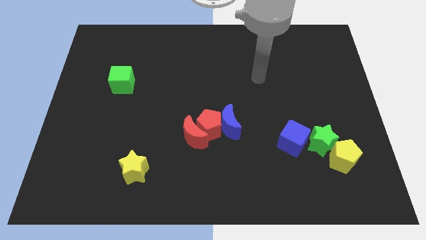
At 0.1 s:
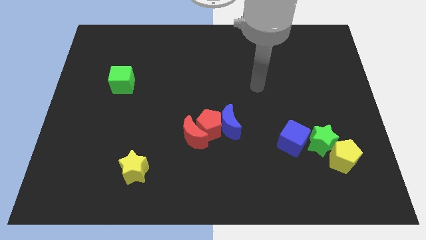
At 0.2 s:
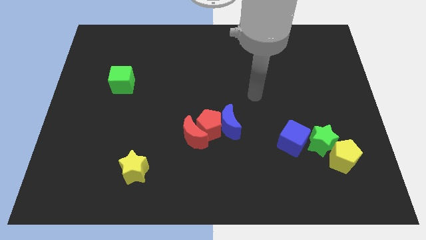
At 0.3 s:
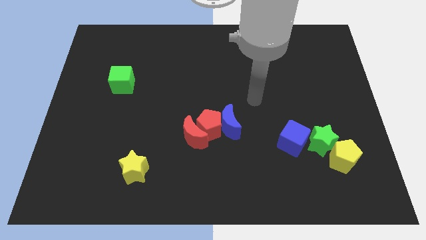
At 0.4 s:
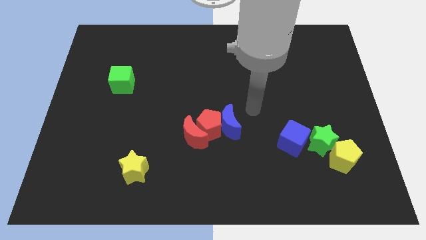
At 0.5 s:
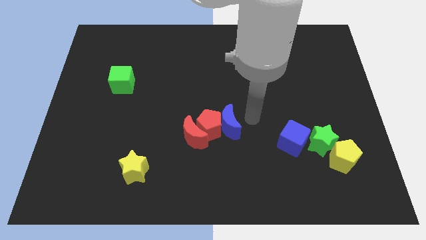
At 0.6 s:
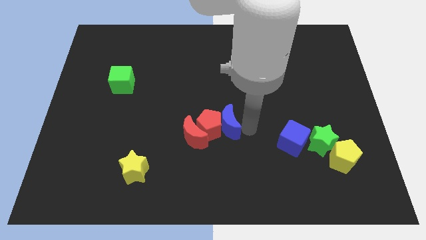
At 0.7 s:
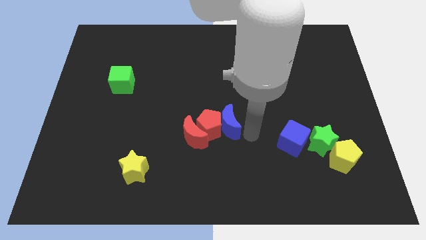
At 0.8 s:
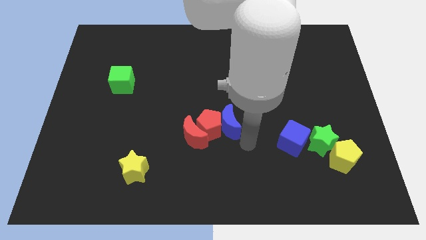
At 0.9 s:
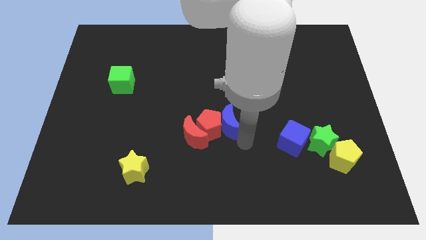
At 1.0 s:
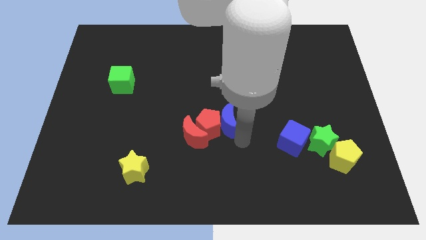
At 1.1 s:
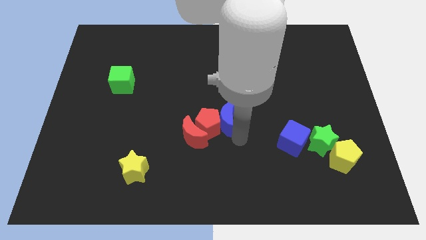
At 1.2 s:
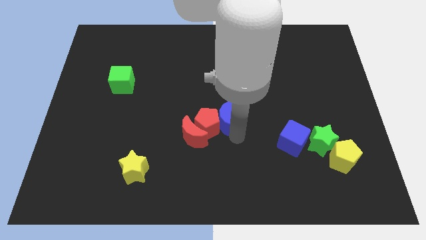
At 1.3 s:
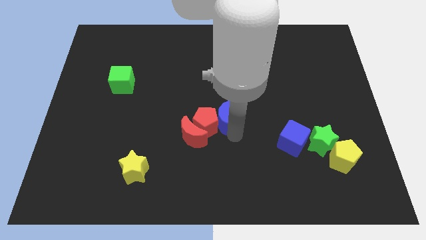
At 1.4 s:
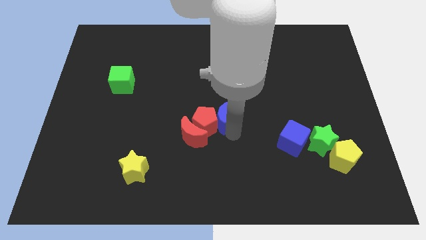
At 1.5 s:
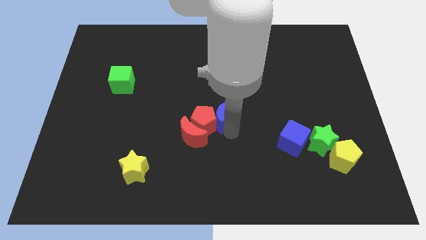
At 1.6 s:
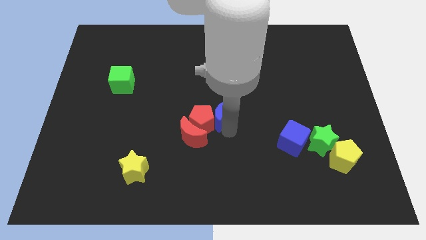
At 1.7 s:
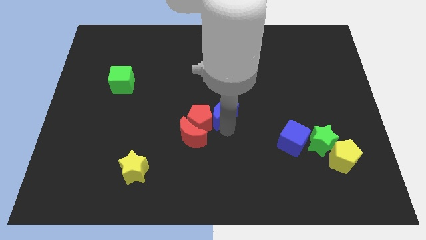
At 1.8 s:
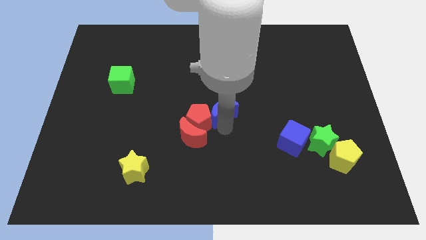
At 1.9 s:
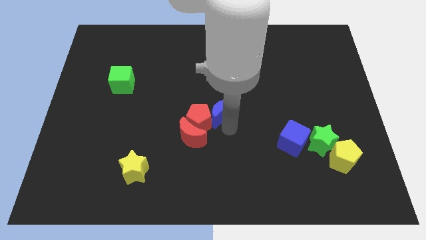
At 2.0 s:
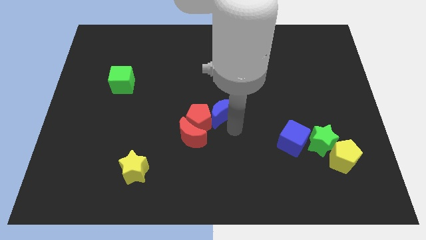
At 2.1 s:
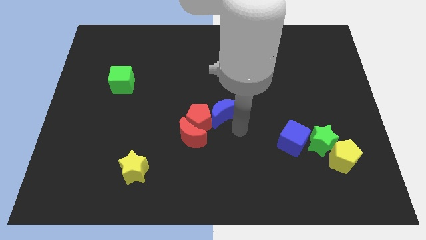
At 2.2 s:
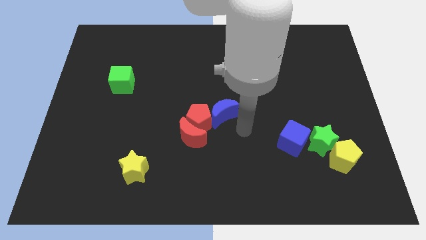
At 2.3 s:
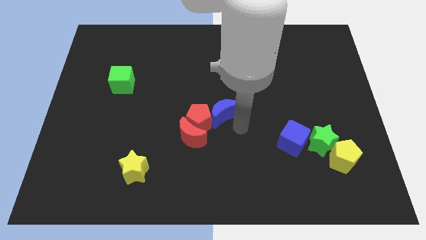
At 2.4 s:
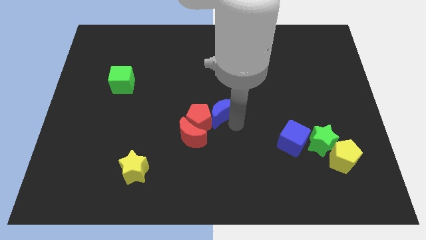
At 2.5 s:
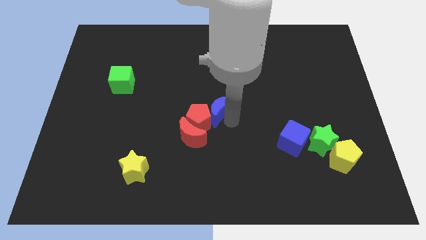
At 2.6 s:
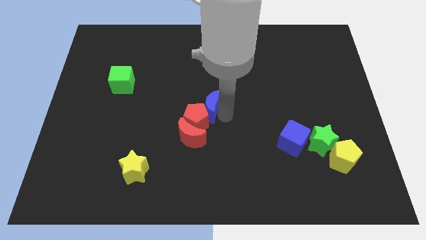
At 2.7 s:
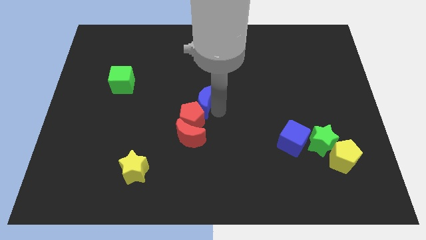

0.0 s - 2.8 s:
slide the blue moon a bit up and then left

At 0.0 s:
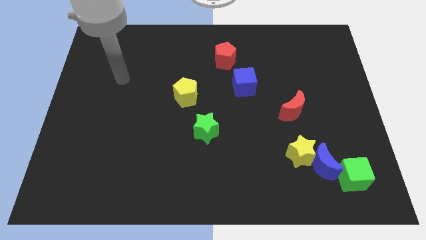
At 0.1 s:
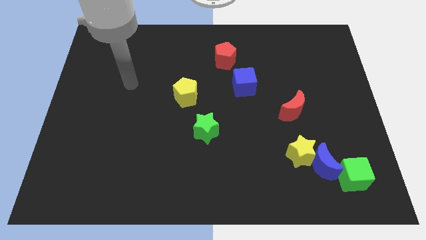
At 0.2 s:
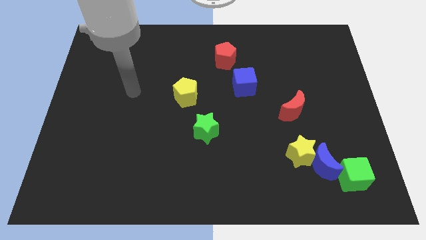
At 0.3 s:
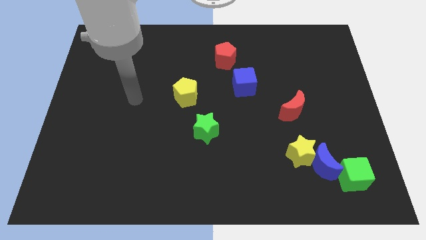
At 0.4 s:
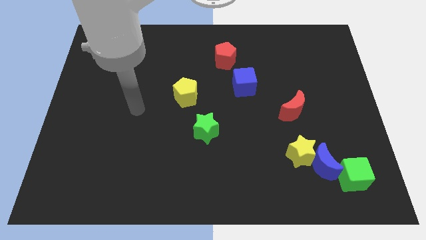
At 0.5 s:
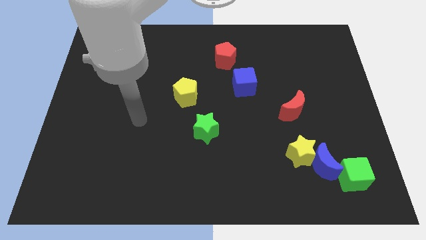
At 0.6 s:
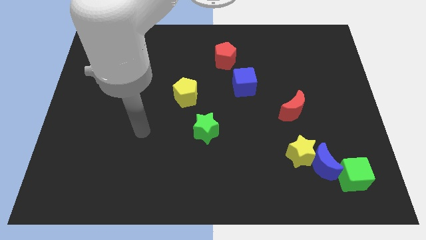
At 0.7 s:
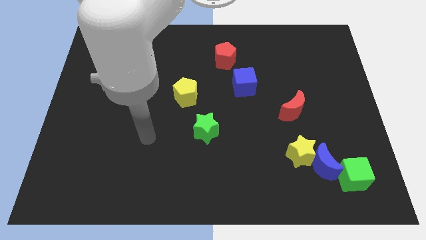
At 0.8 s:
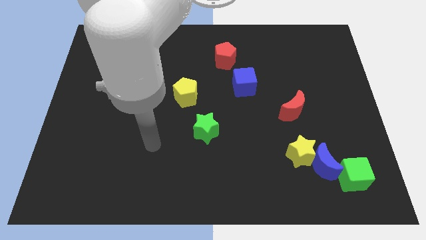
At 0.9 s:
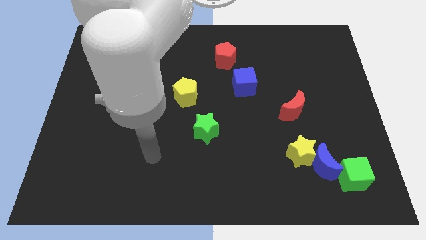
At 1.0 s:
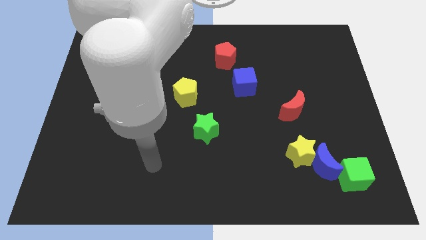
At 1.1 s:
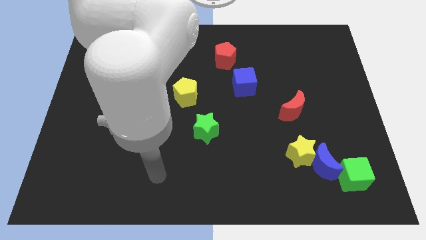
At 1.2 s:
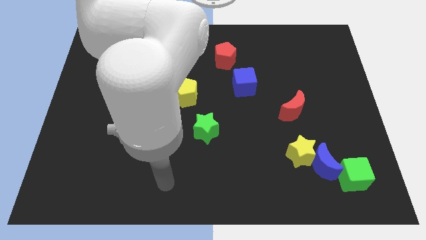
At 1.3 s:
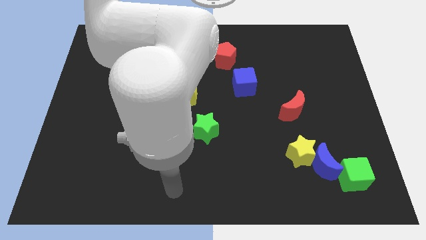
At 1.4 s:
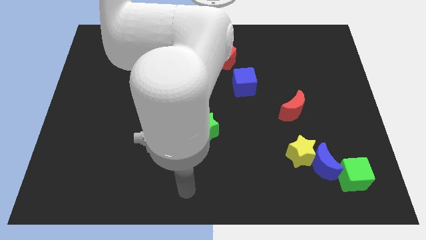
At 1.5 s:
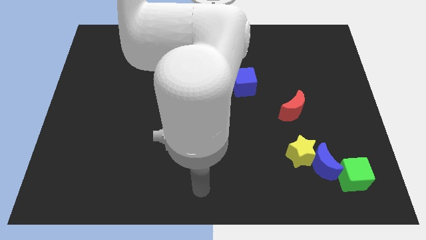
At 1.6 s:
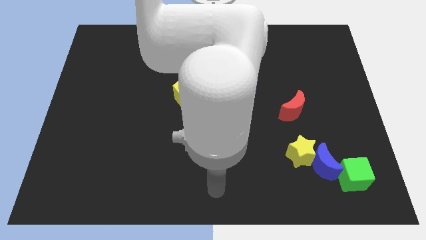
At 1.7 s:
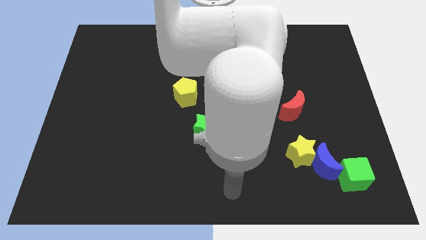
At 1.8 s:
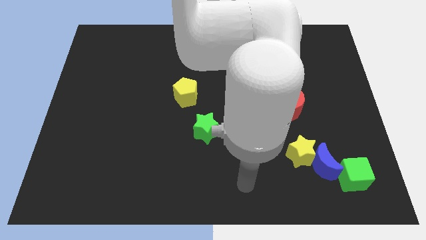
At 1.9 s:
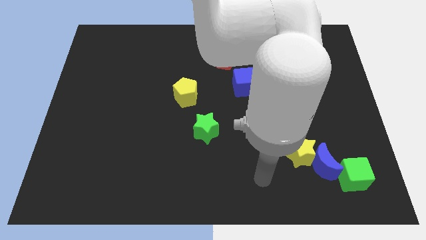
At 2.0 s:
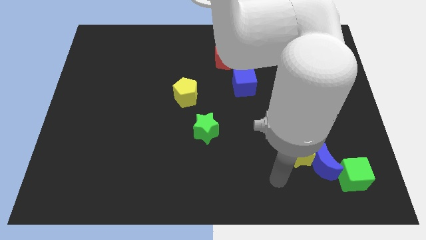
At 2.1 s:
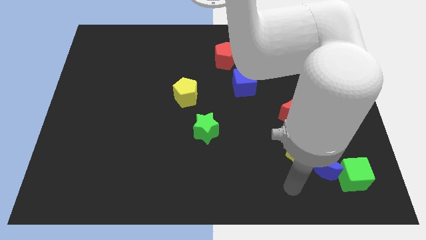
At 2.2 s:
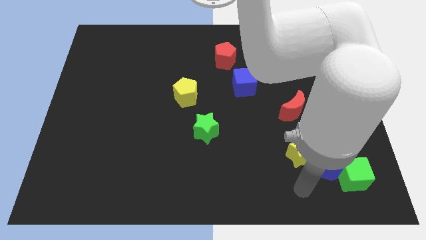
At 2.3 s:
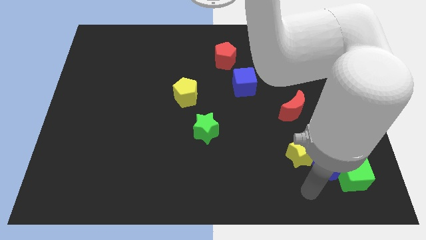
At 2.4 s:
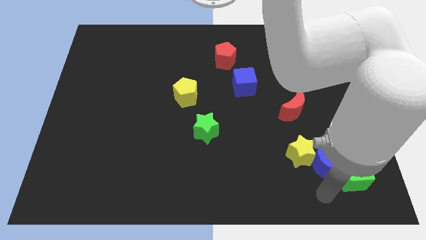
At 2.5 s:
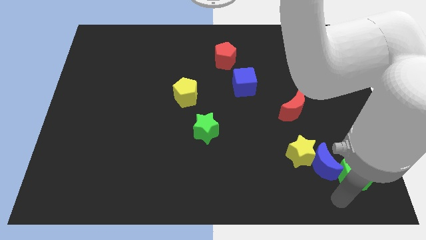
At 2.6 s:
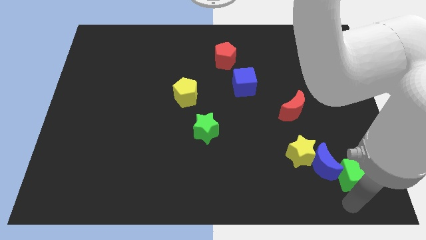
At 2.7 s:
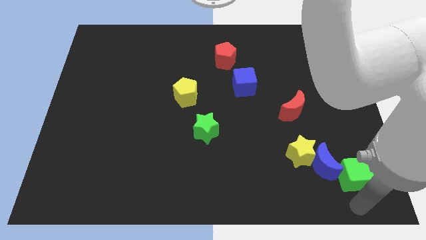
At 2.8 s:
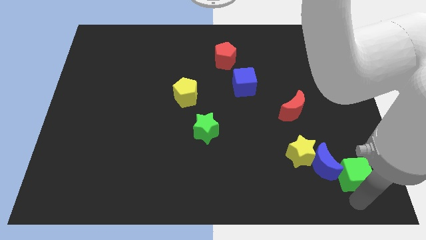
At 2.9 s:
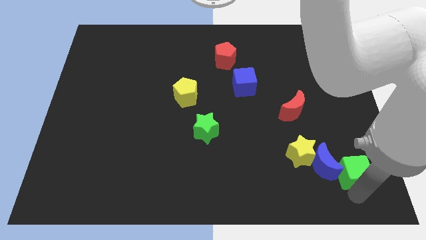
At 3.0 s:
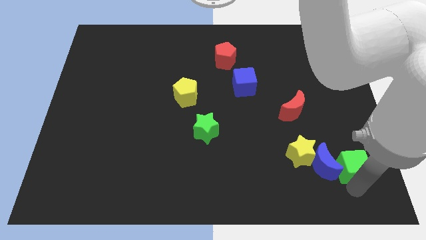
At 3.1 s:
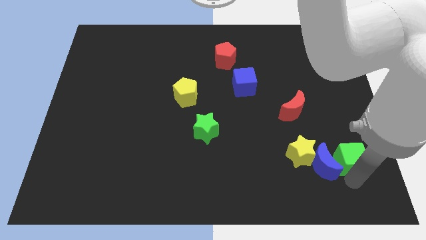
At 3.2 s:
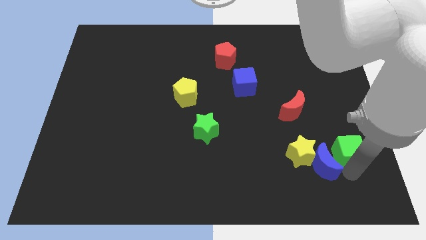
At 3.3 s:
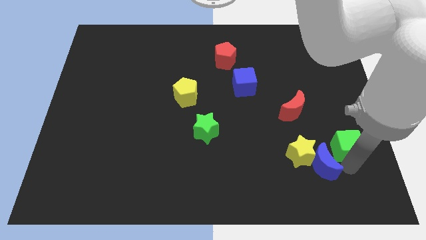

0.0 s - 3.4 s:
push the green cube up somewhat

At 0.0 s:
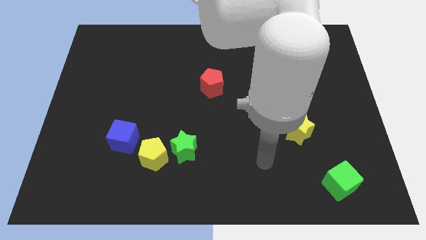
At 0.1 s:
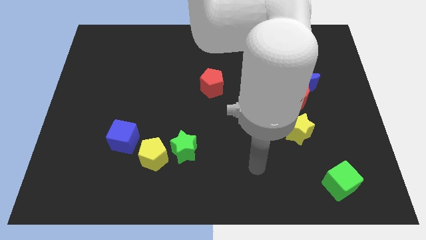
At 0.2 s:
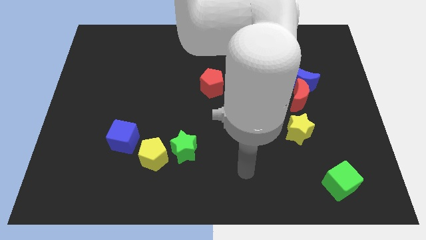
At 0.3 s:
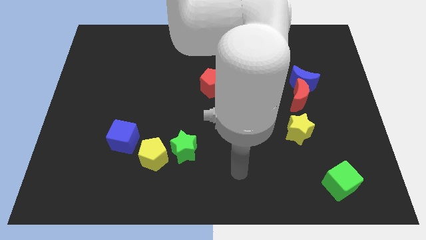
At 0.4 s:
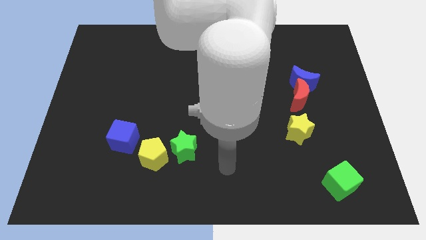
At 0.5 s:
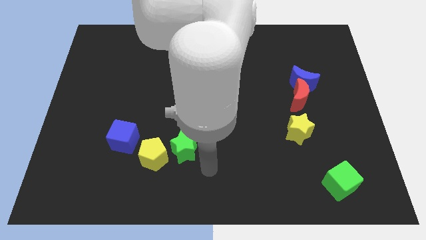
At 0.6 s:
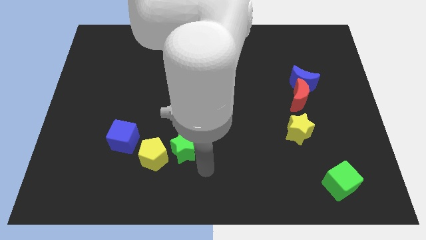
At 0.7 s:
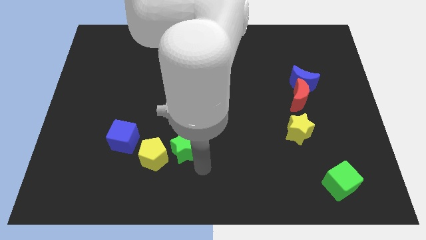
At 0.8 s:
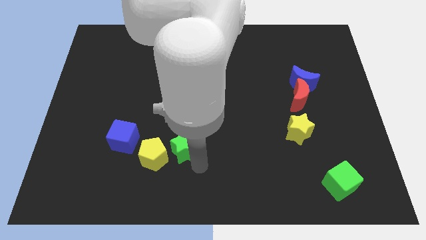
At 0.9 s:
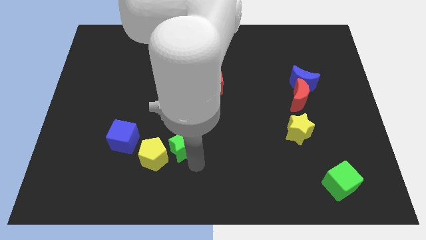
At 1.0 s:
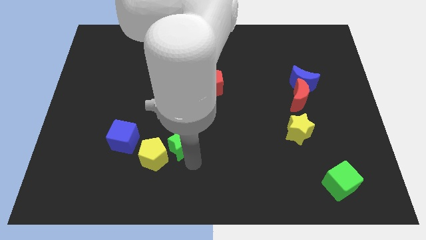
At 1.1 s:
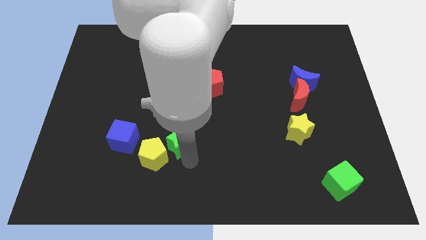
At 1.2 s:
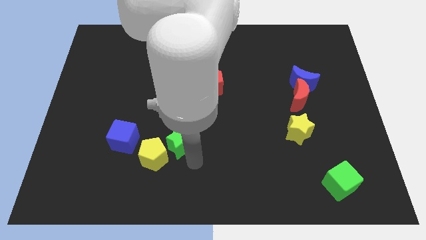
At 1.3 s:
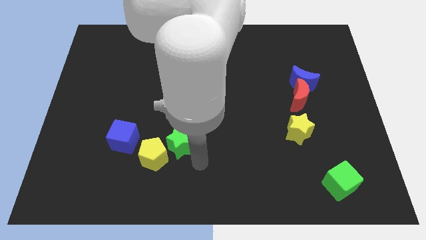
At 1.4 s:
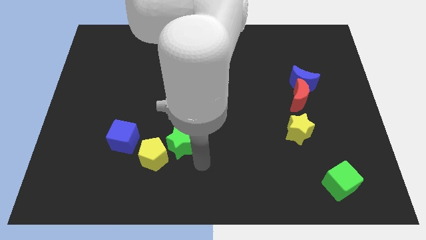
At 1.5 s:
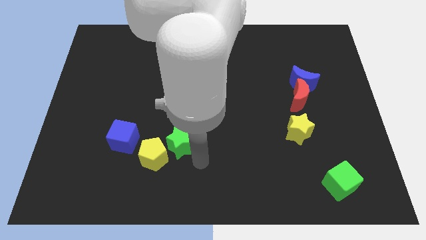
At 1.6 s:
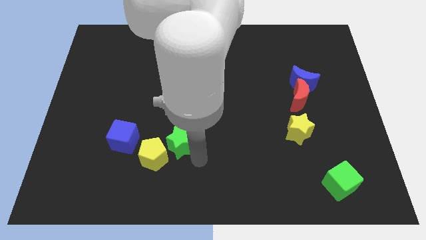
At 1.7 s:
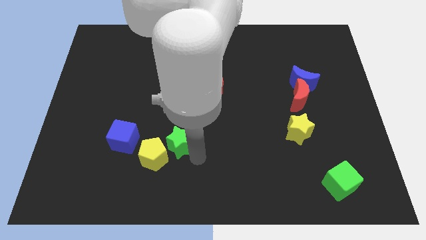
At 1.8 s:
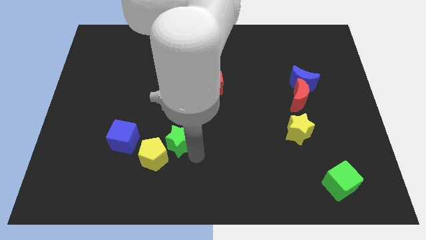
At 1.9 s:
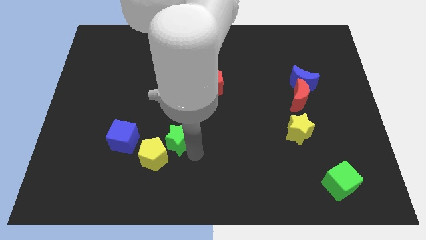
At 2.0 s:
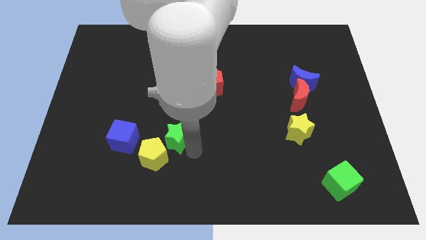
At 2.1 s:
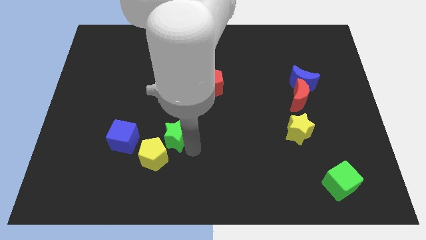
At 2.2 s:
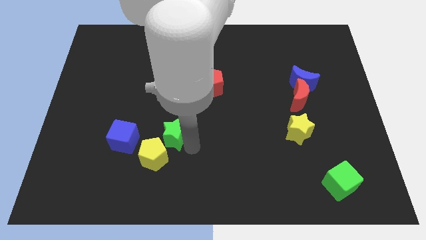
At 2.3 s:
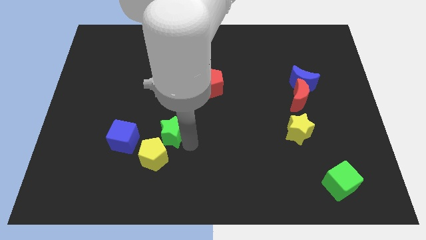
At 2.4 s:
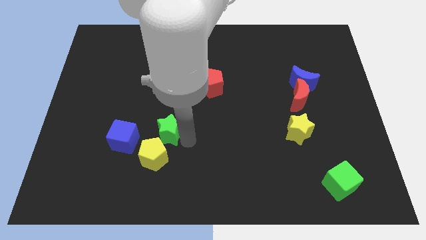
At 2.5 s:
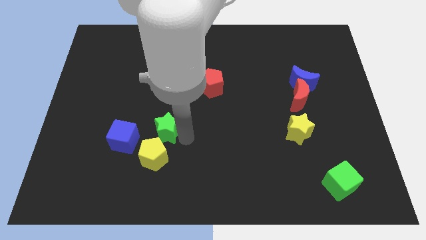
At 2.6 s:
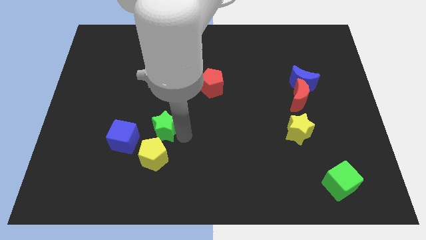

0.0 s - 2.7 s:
slightly move the green star diagonally up and left
